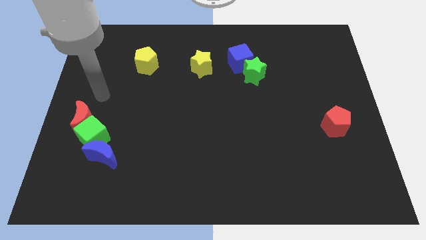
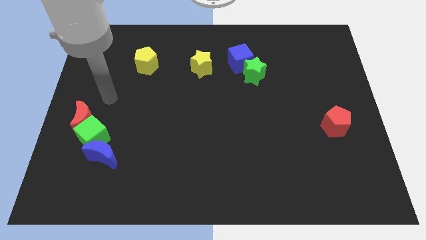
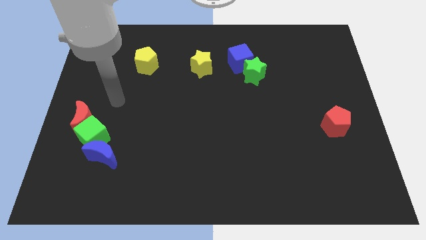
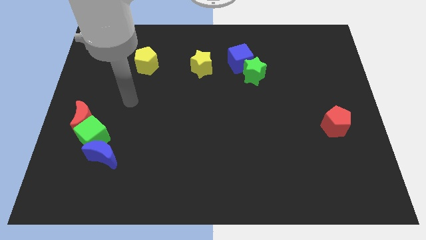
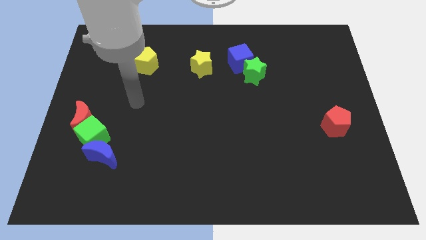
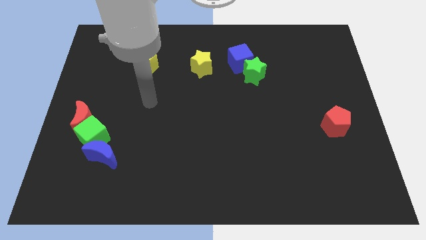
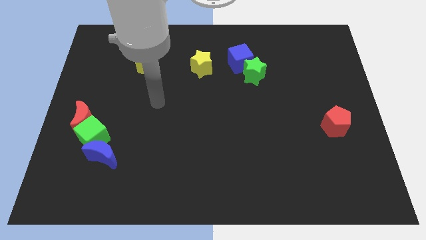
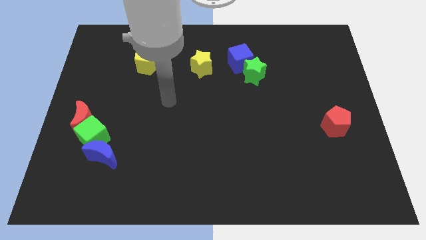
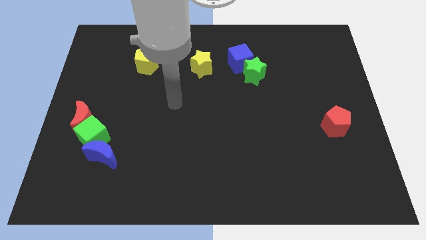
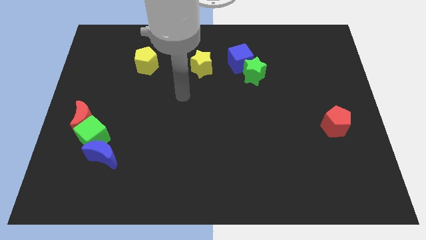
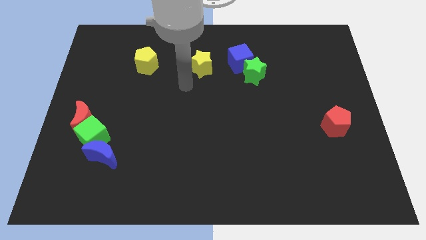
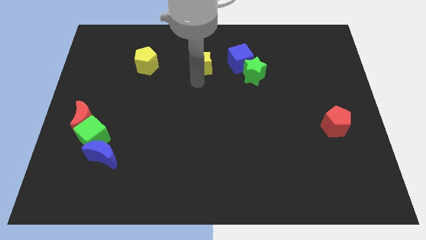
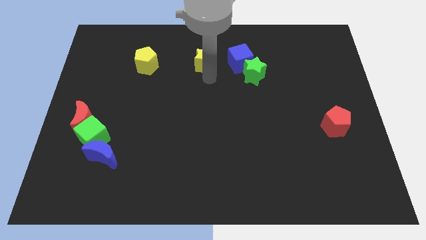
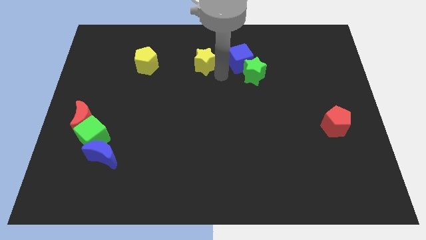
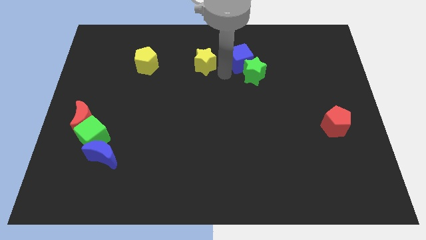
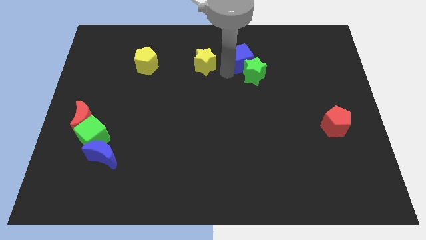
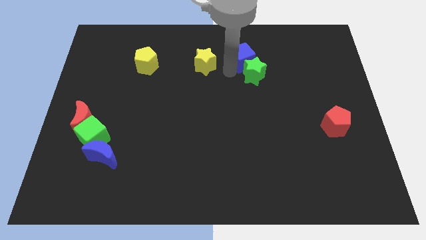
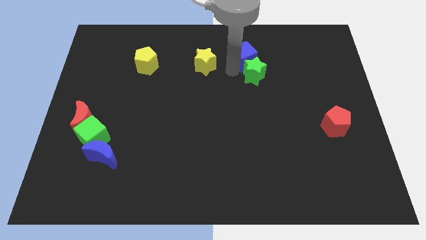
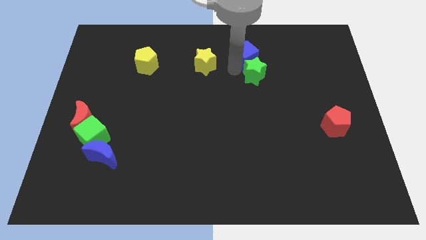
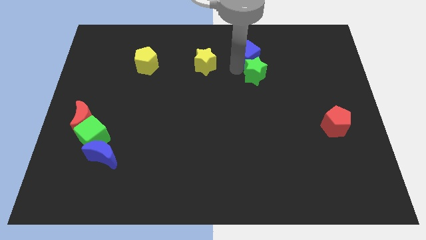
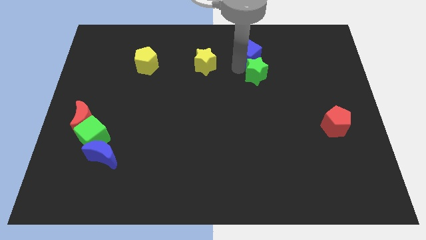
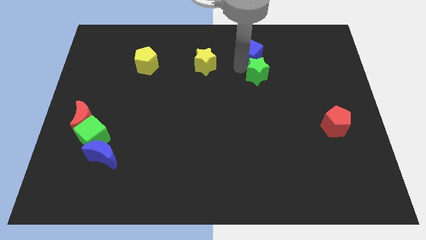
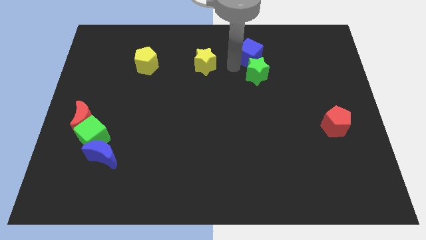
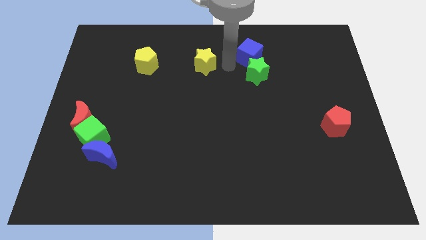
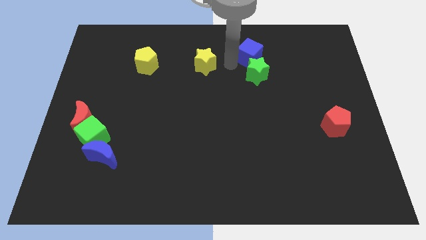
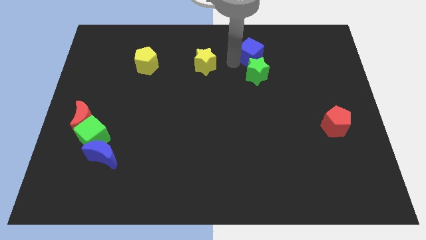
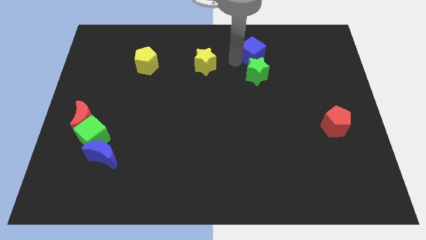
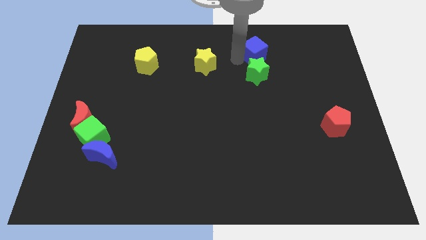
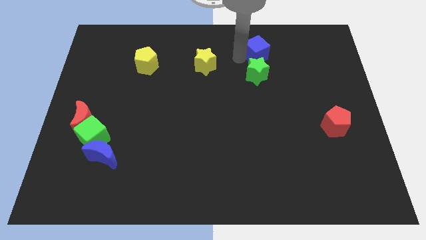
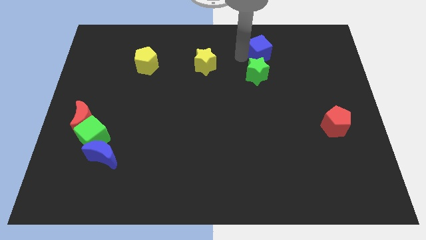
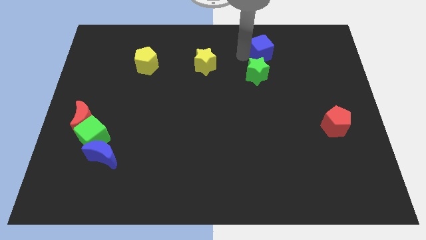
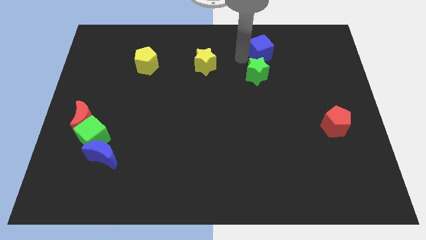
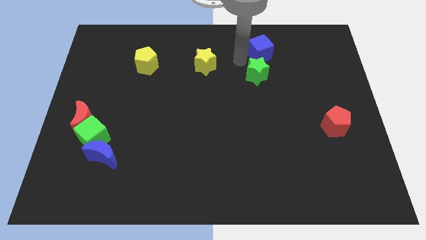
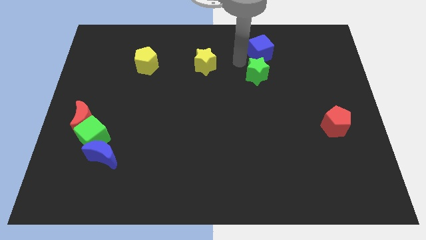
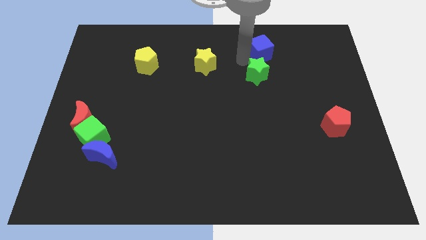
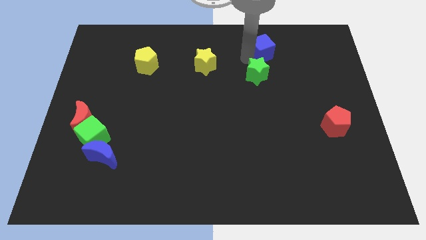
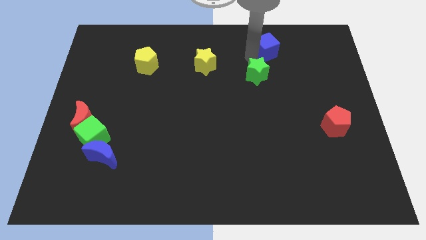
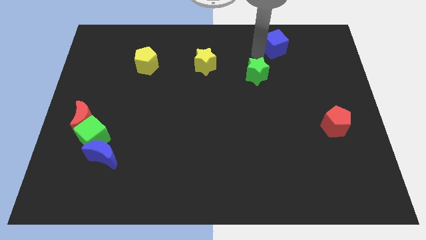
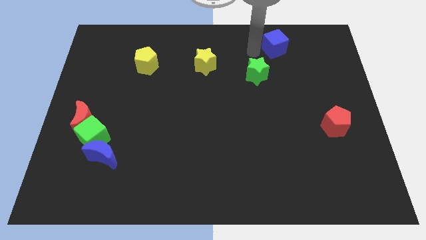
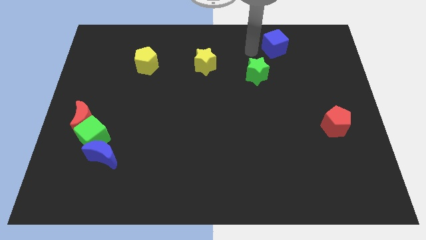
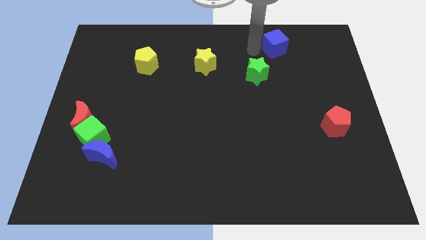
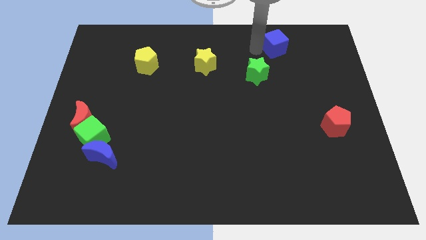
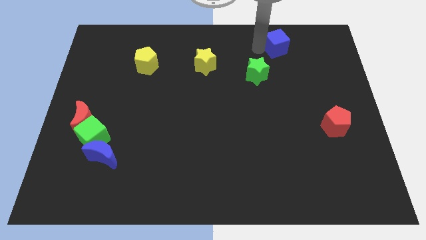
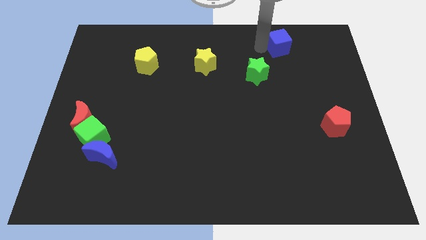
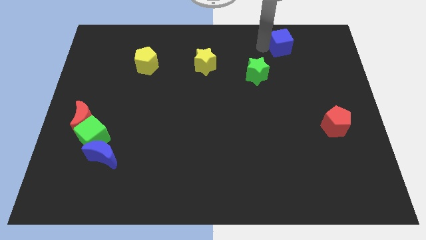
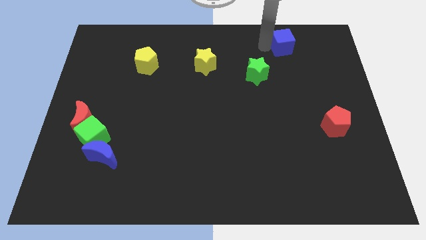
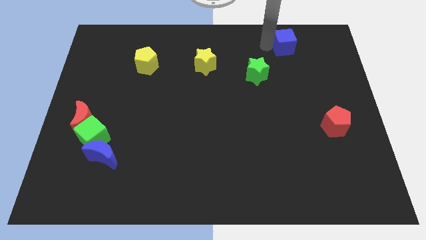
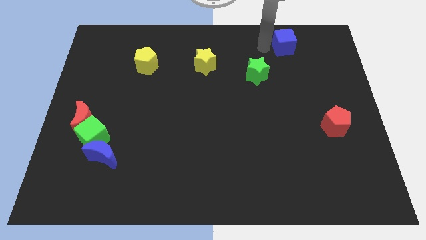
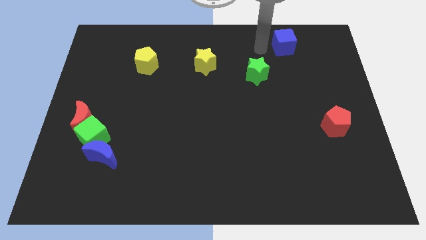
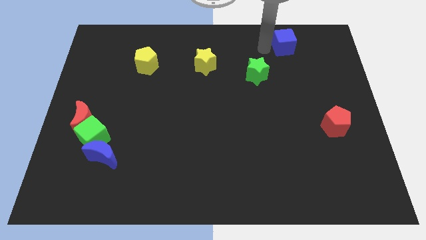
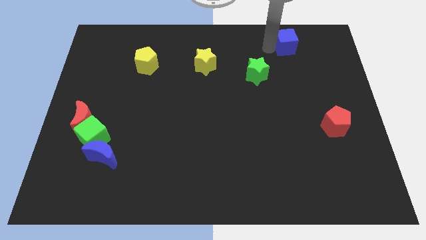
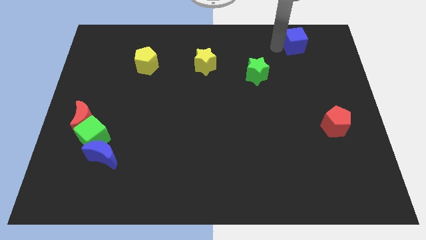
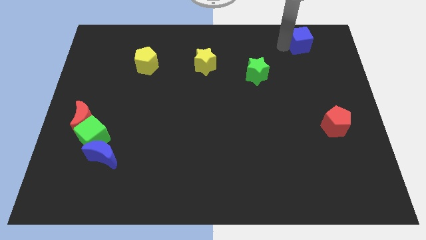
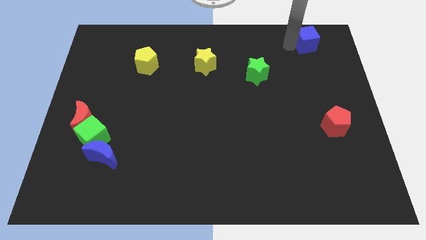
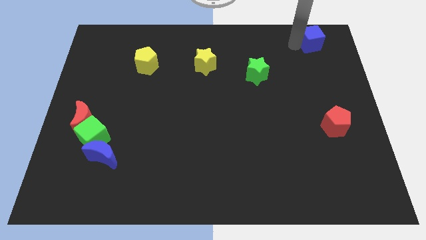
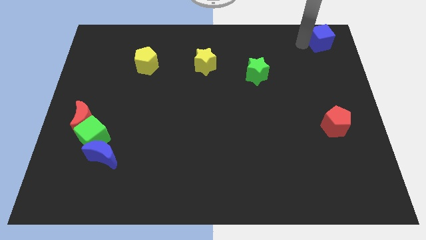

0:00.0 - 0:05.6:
slide the blue cube to the top right corner

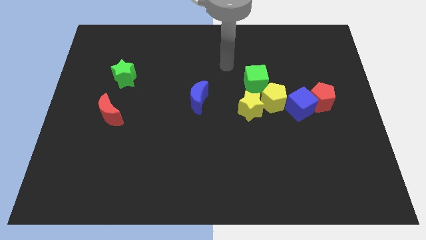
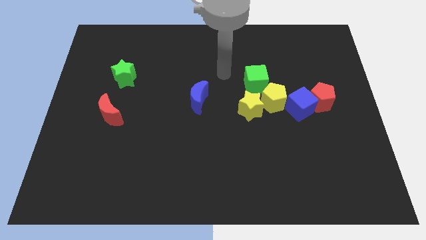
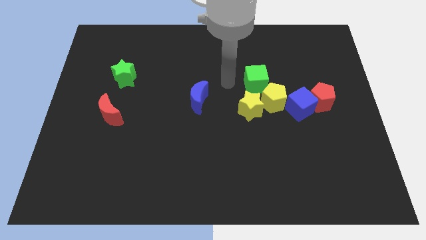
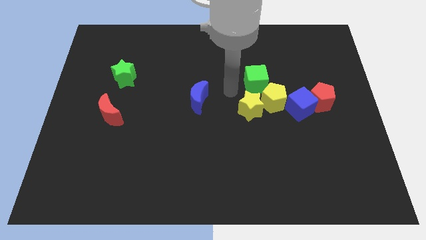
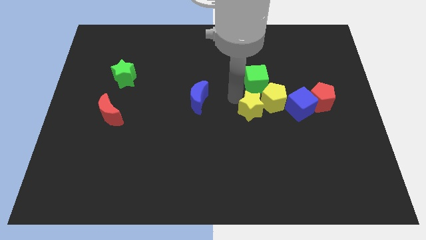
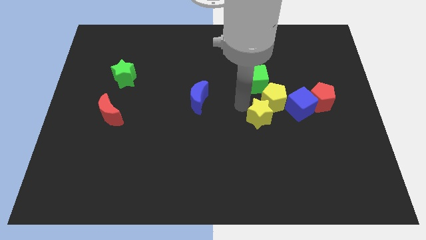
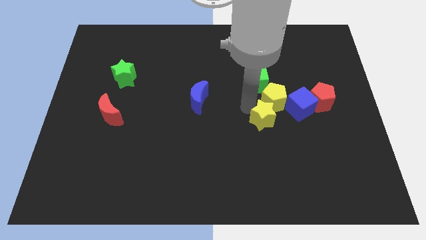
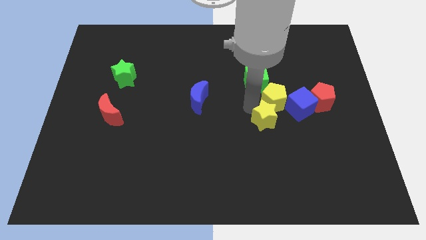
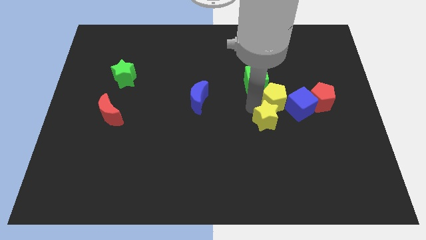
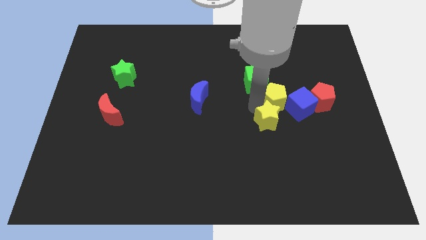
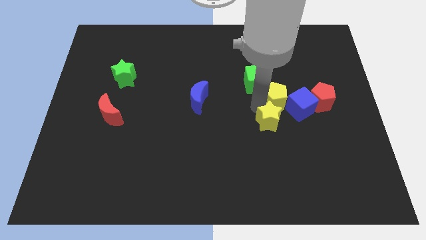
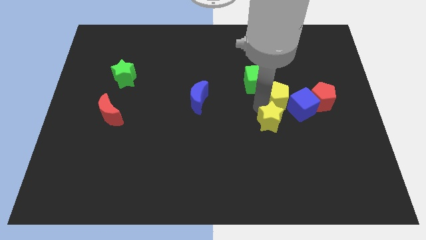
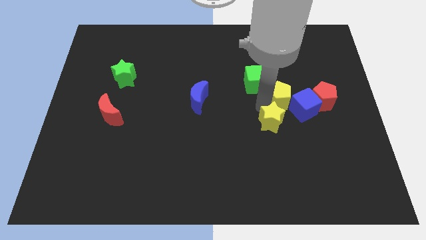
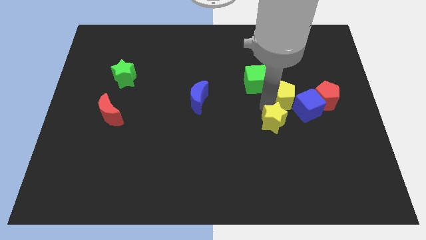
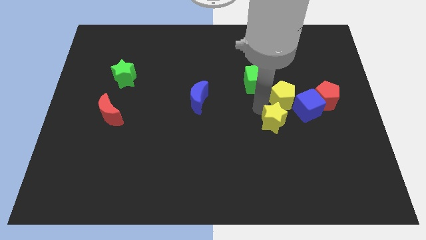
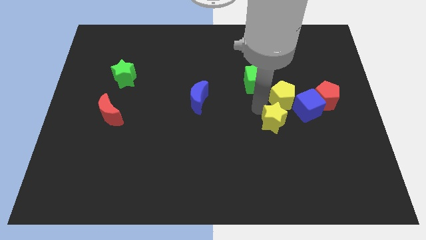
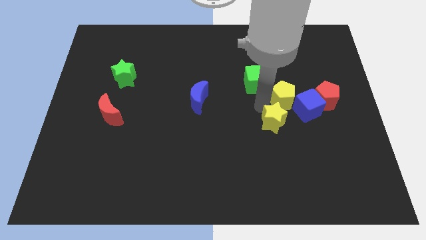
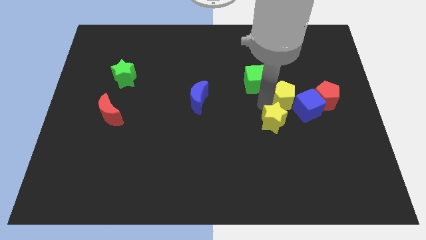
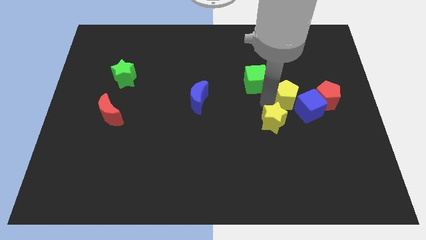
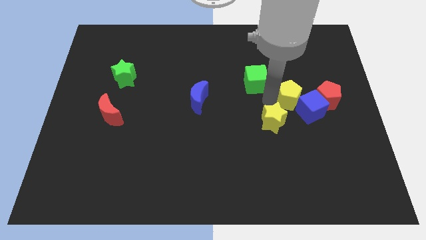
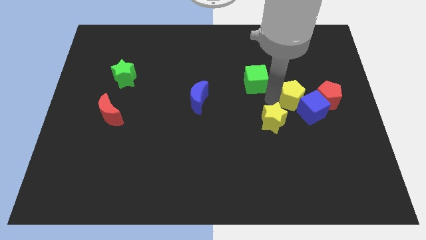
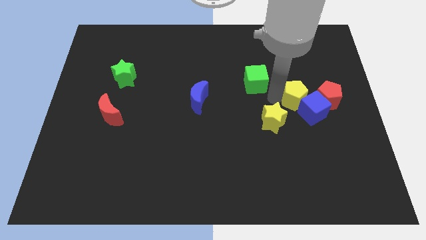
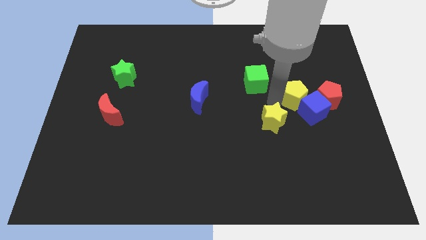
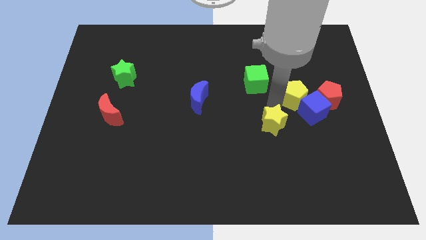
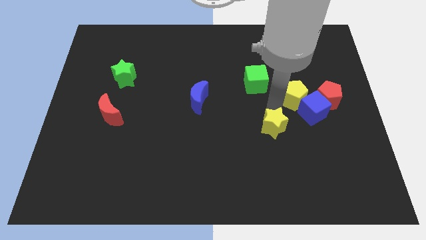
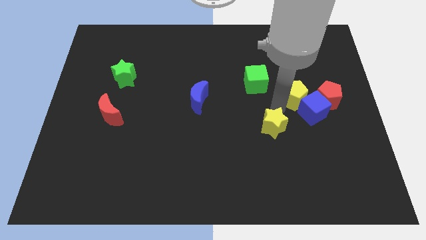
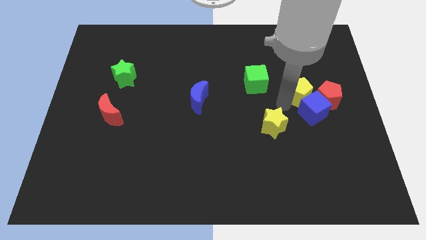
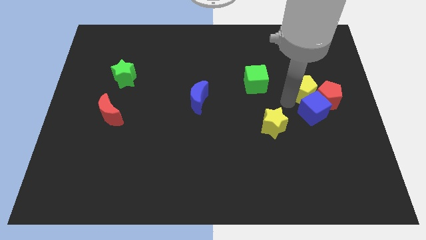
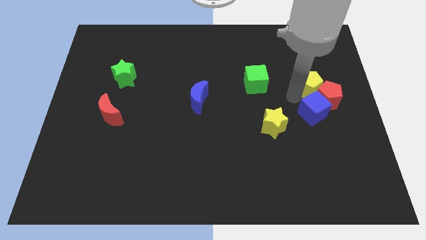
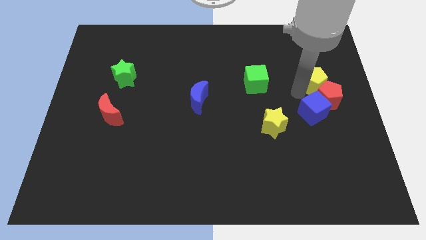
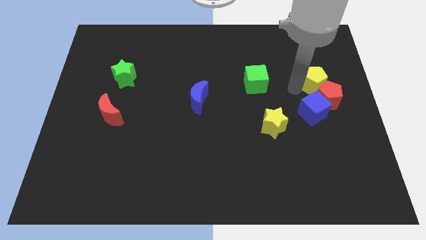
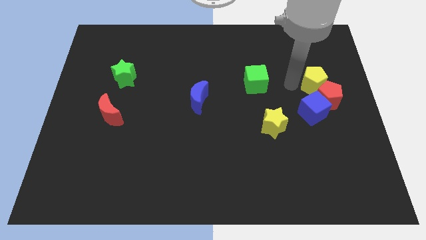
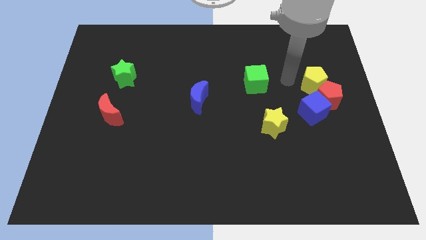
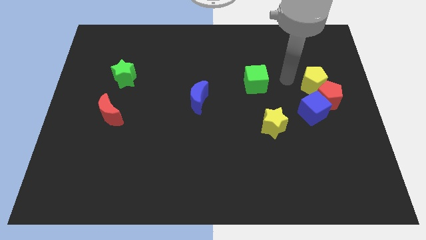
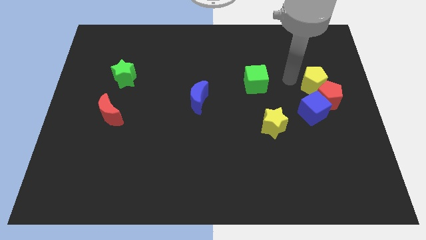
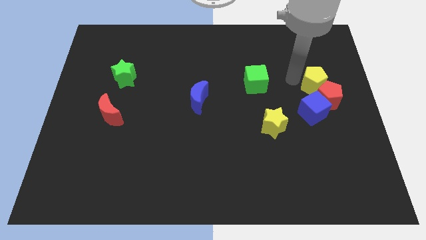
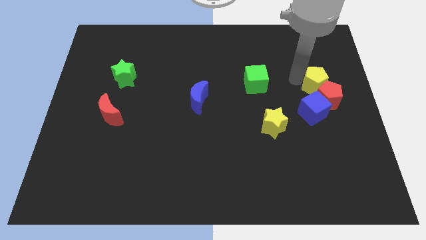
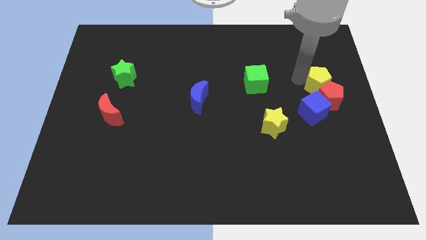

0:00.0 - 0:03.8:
push the yellow pentagon to the right side
